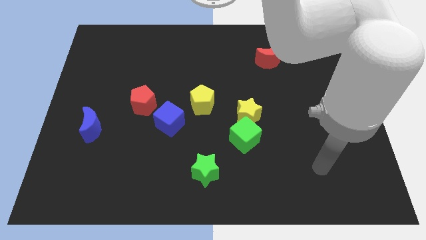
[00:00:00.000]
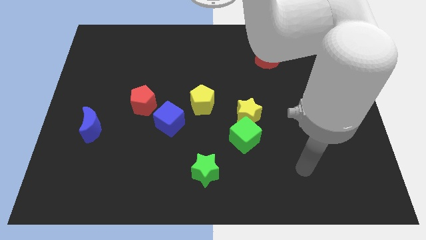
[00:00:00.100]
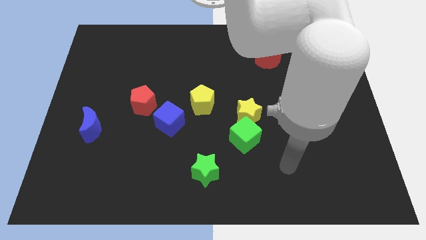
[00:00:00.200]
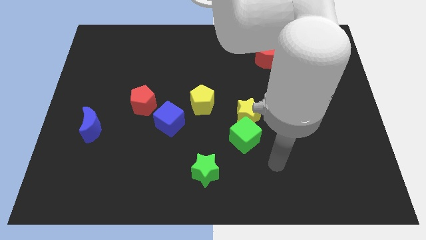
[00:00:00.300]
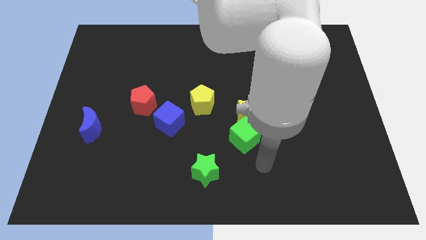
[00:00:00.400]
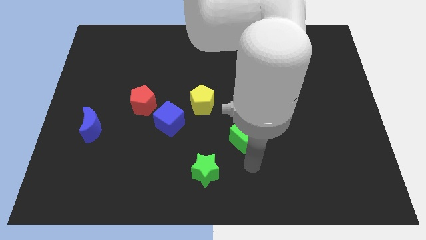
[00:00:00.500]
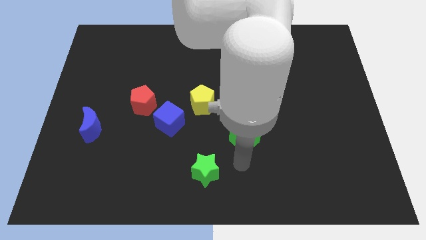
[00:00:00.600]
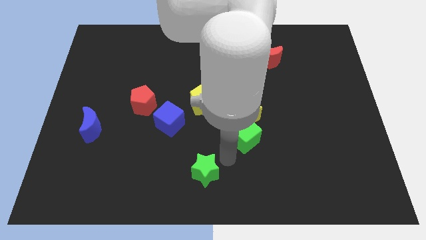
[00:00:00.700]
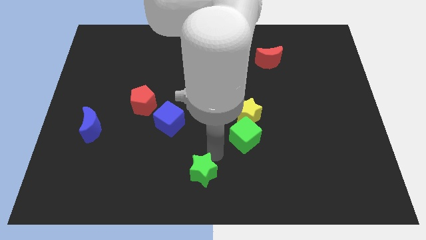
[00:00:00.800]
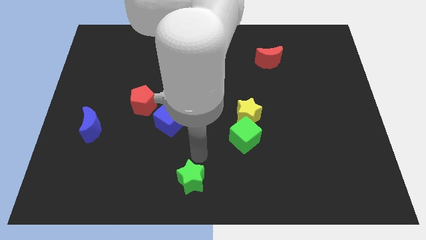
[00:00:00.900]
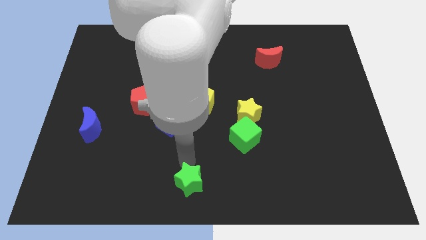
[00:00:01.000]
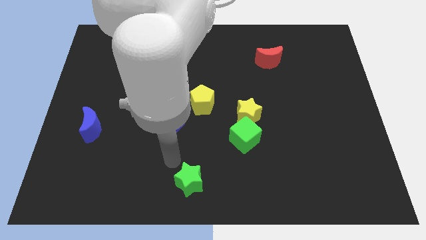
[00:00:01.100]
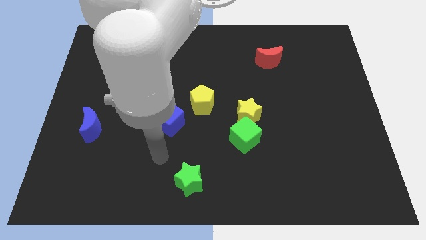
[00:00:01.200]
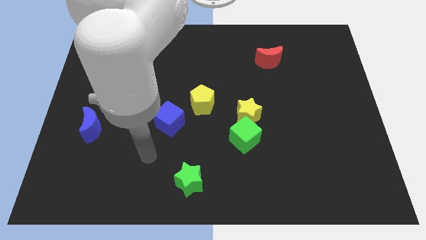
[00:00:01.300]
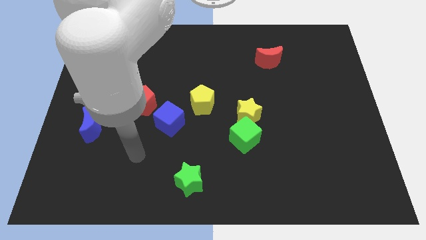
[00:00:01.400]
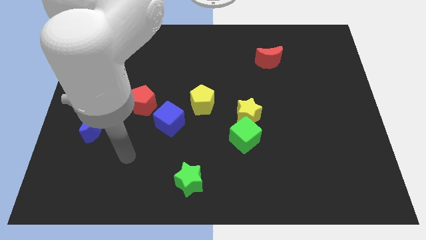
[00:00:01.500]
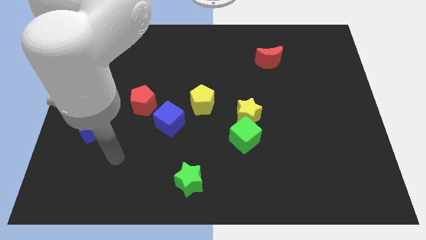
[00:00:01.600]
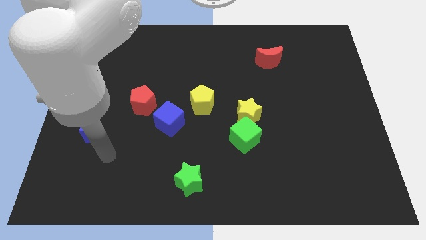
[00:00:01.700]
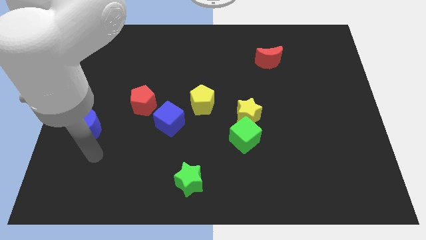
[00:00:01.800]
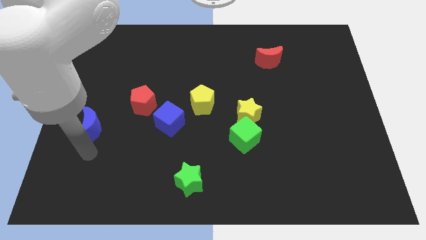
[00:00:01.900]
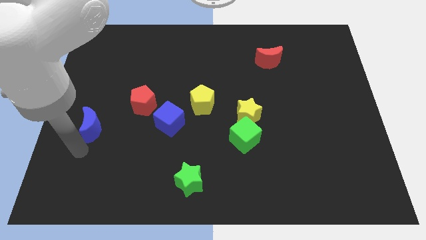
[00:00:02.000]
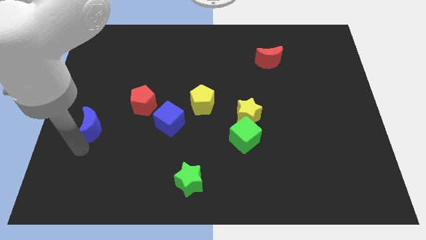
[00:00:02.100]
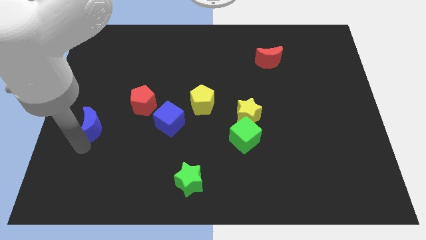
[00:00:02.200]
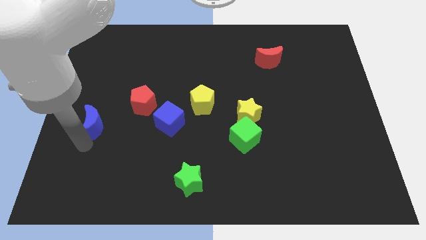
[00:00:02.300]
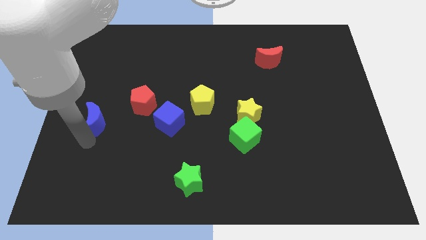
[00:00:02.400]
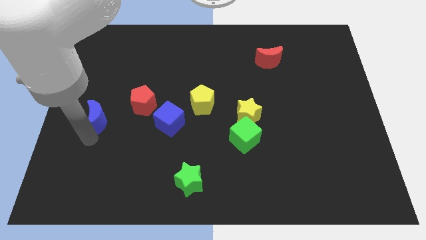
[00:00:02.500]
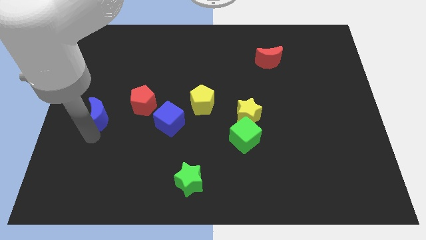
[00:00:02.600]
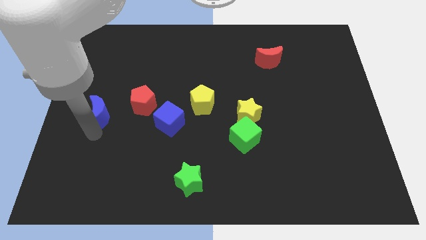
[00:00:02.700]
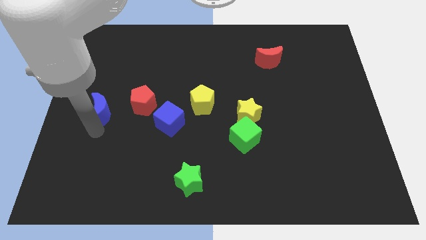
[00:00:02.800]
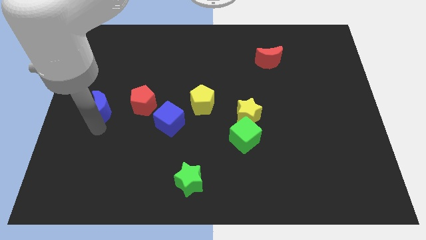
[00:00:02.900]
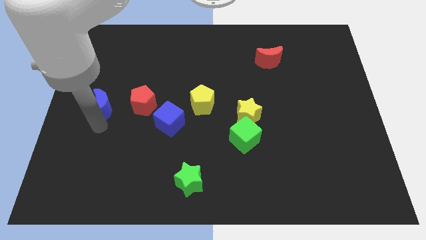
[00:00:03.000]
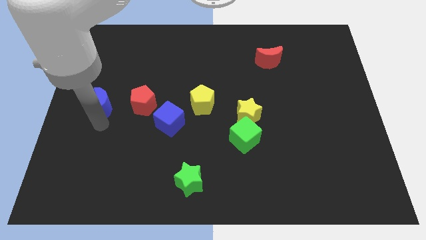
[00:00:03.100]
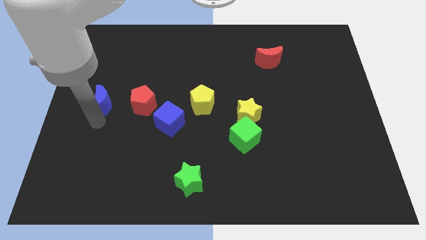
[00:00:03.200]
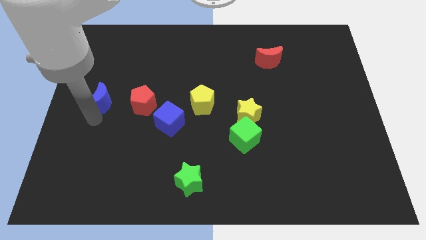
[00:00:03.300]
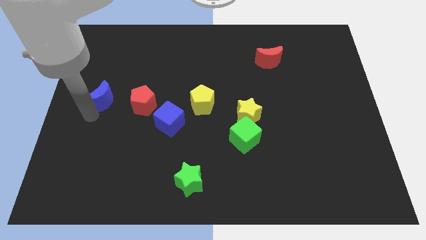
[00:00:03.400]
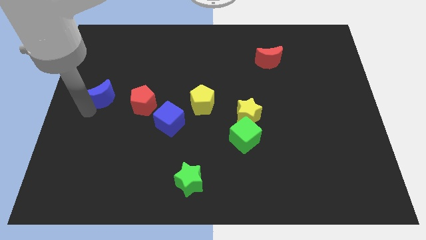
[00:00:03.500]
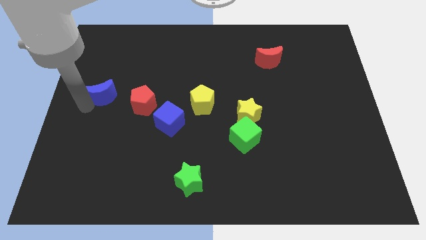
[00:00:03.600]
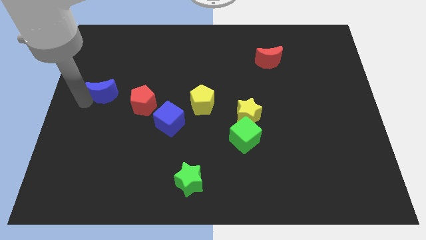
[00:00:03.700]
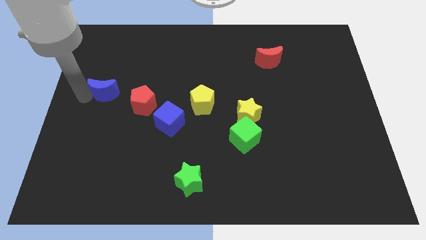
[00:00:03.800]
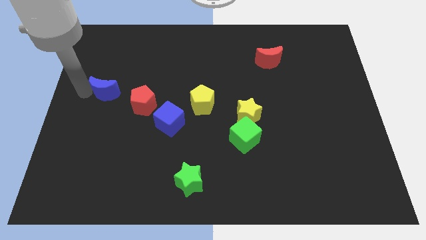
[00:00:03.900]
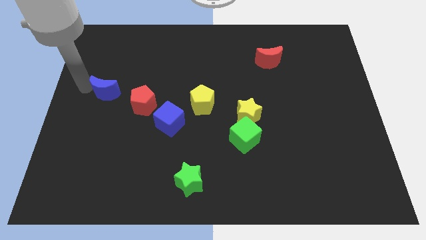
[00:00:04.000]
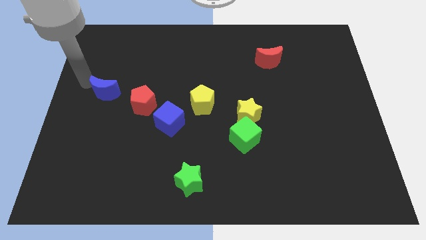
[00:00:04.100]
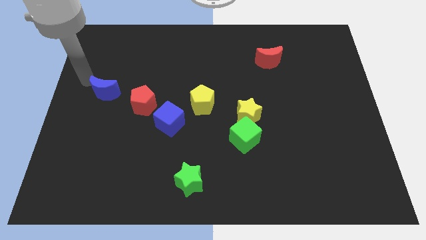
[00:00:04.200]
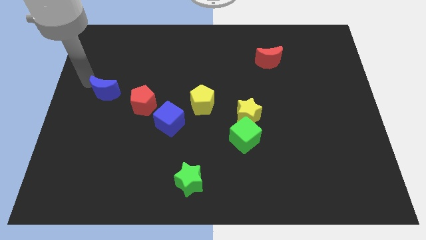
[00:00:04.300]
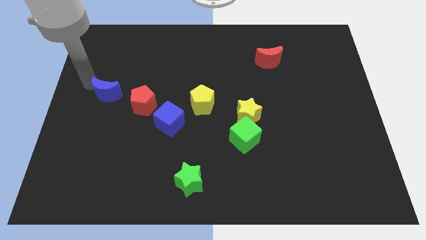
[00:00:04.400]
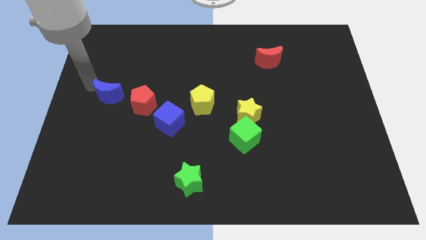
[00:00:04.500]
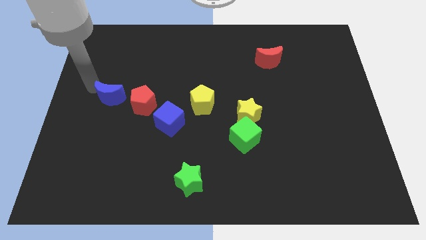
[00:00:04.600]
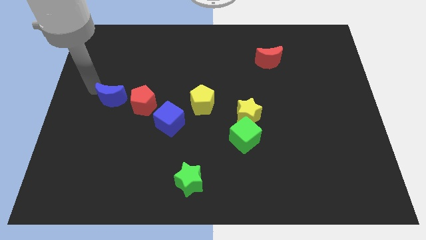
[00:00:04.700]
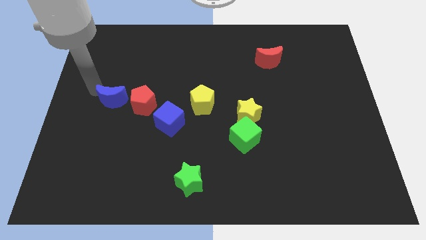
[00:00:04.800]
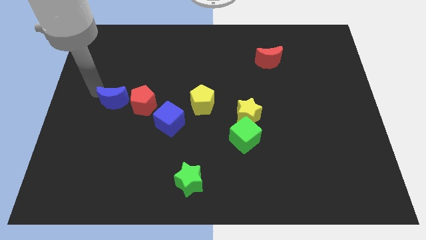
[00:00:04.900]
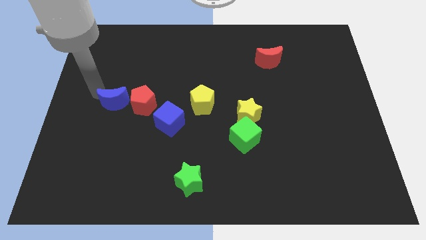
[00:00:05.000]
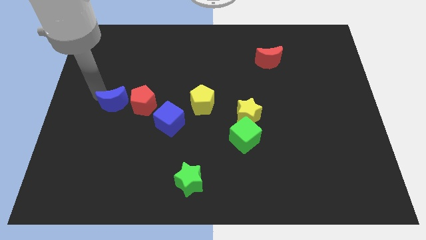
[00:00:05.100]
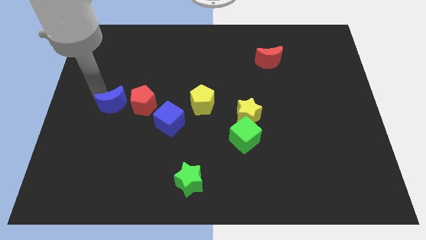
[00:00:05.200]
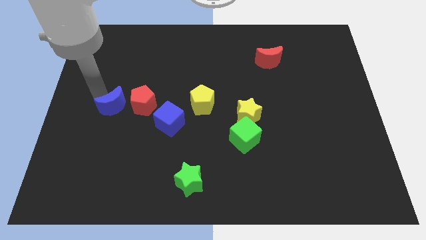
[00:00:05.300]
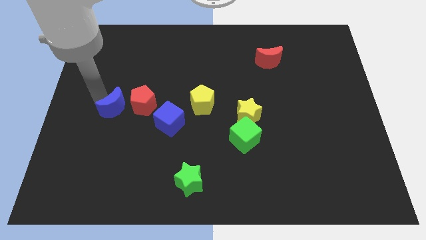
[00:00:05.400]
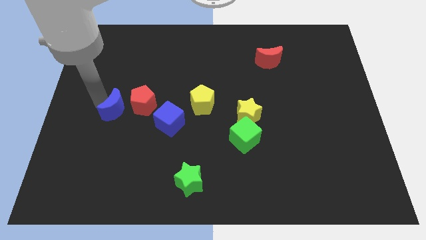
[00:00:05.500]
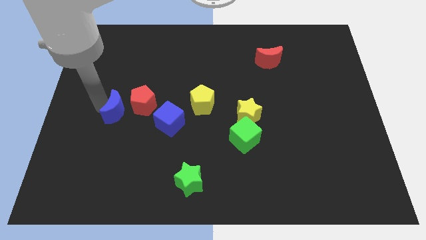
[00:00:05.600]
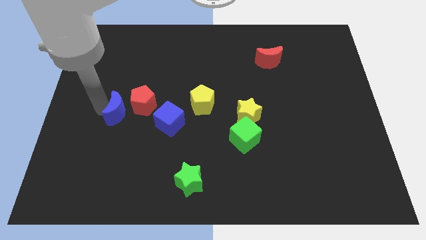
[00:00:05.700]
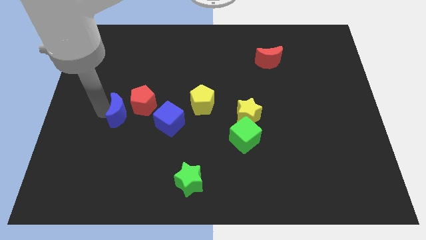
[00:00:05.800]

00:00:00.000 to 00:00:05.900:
slide the blue moon next to the red pentagon

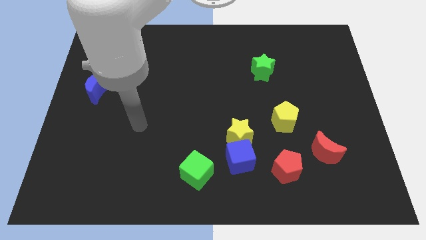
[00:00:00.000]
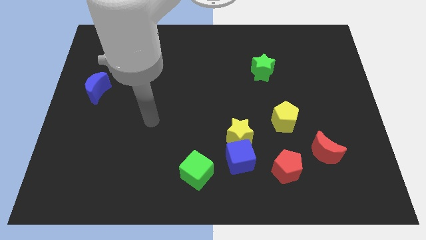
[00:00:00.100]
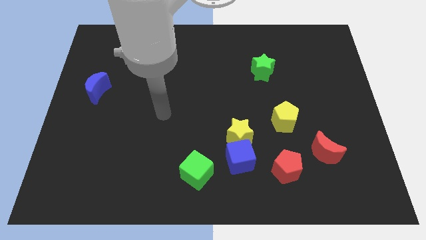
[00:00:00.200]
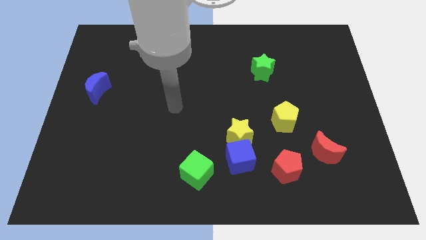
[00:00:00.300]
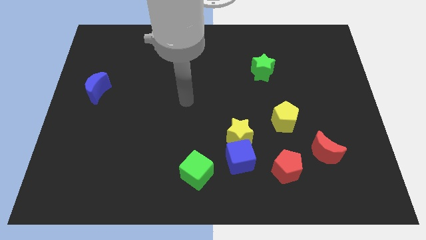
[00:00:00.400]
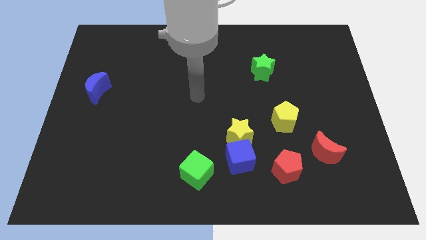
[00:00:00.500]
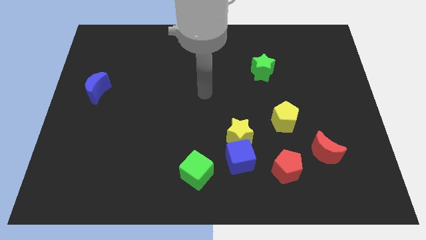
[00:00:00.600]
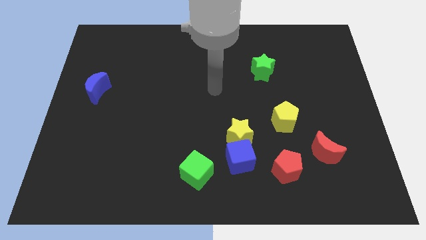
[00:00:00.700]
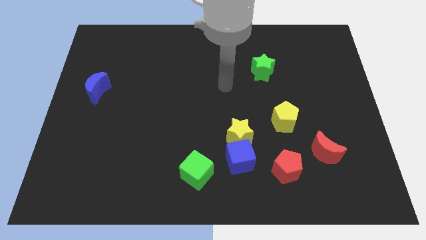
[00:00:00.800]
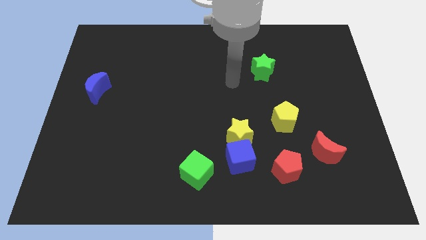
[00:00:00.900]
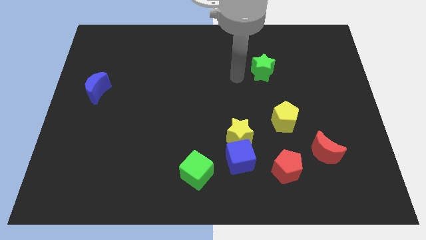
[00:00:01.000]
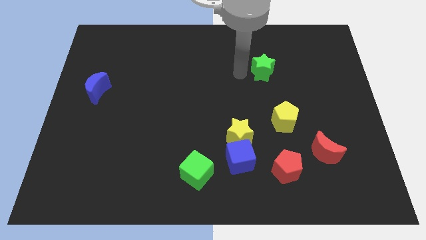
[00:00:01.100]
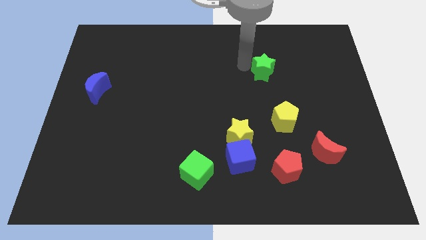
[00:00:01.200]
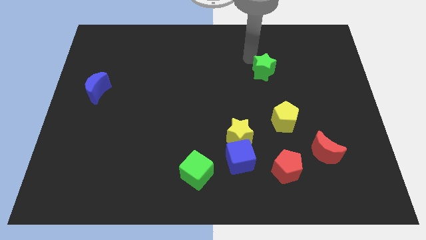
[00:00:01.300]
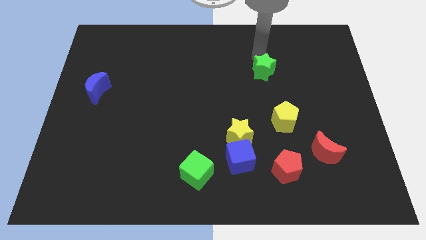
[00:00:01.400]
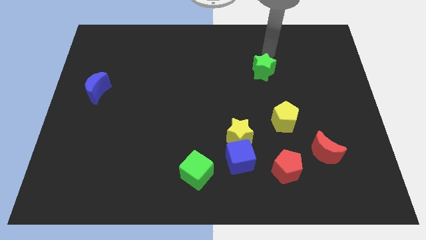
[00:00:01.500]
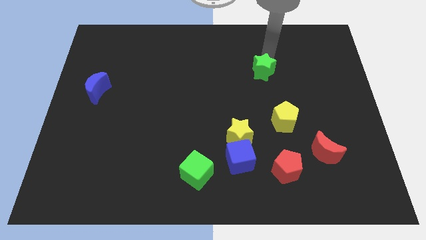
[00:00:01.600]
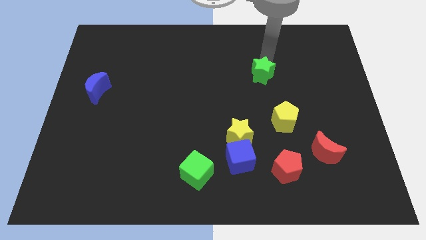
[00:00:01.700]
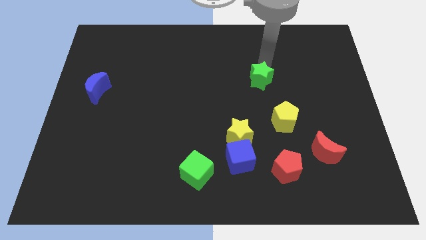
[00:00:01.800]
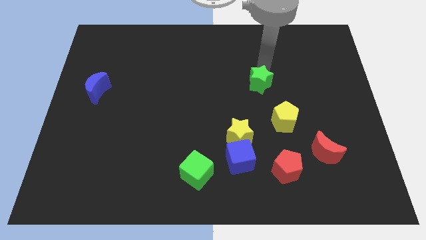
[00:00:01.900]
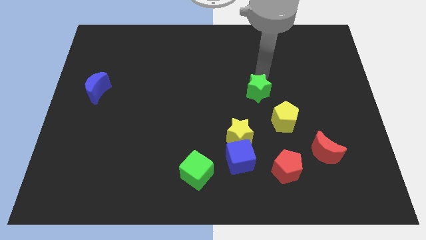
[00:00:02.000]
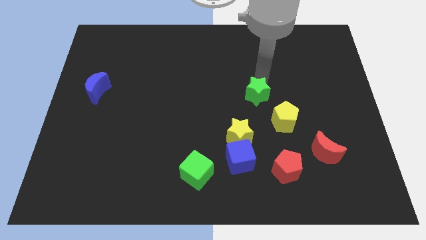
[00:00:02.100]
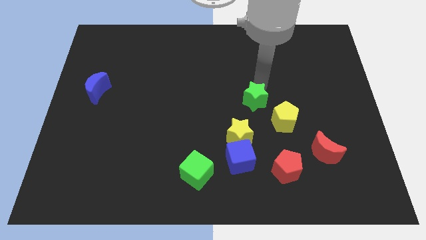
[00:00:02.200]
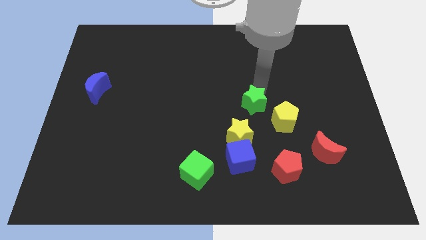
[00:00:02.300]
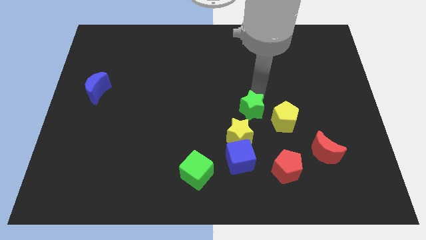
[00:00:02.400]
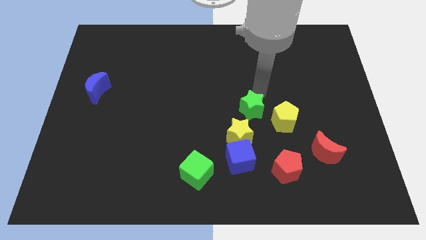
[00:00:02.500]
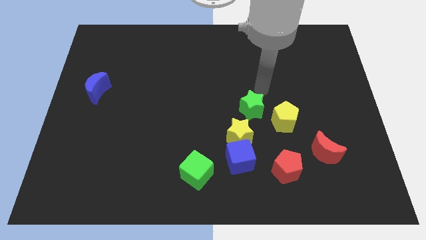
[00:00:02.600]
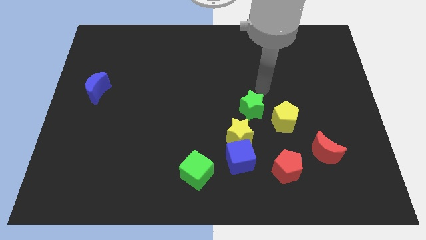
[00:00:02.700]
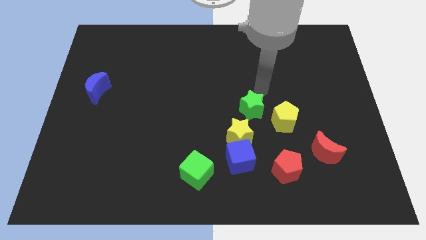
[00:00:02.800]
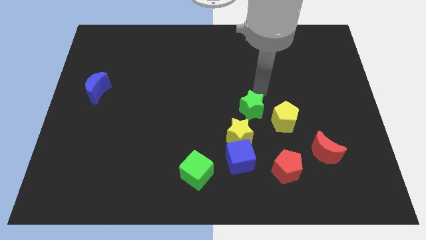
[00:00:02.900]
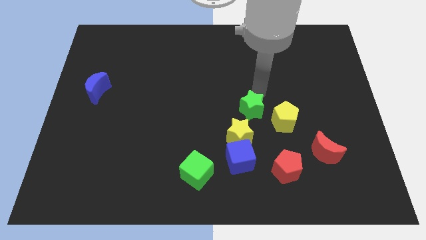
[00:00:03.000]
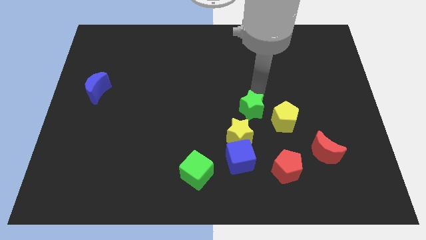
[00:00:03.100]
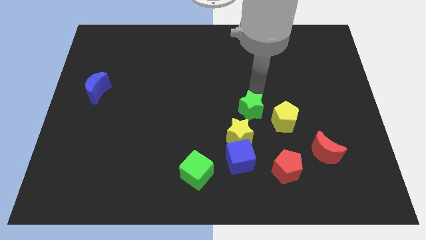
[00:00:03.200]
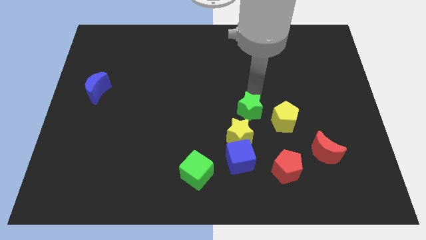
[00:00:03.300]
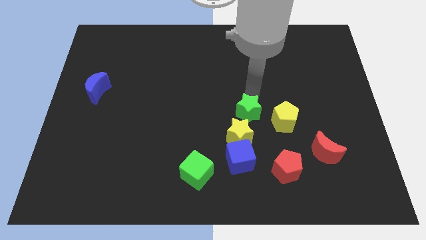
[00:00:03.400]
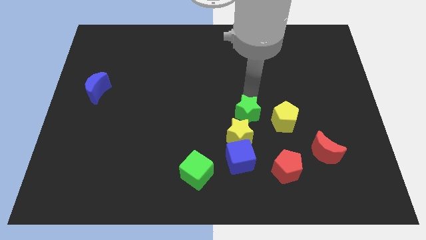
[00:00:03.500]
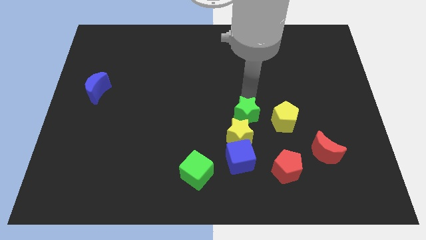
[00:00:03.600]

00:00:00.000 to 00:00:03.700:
slide the green star towards the yellow star
